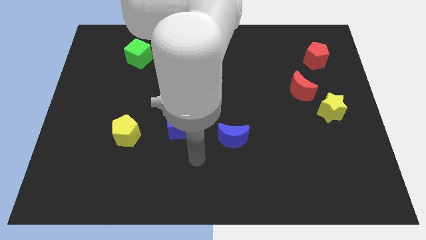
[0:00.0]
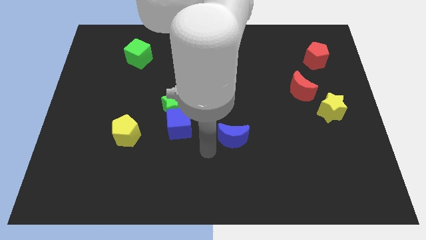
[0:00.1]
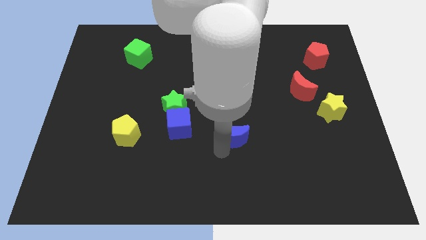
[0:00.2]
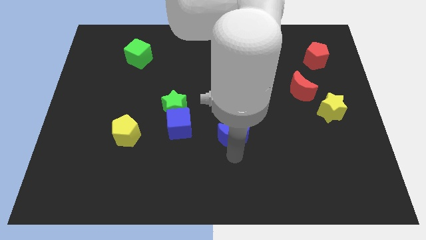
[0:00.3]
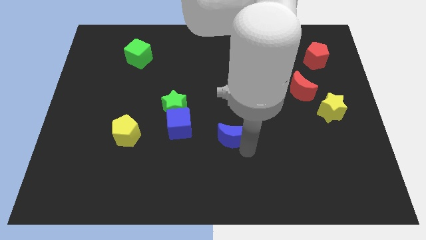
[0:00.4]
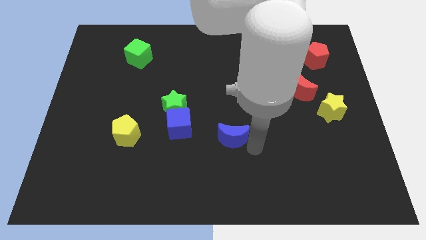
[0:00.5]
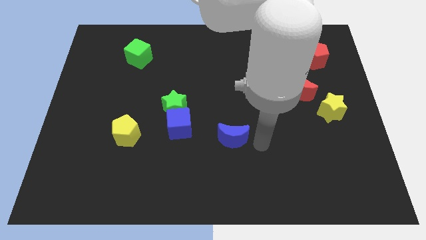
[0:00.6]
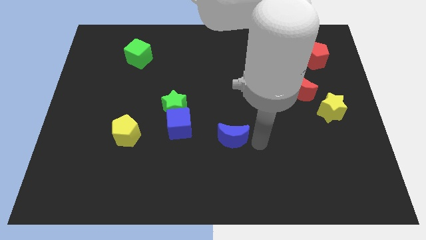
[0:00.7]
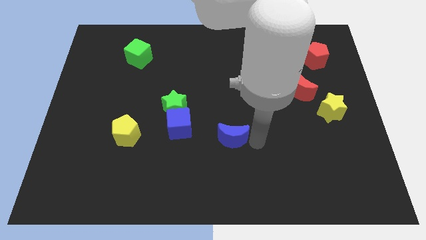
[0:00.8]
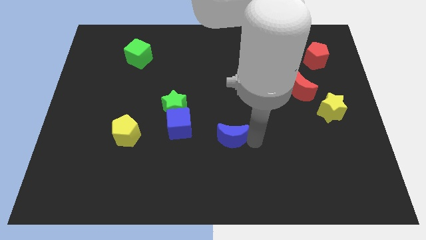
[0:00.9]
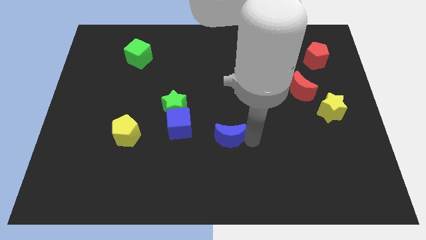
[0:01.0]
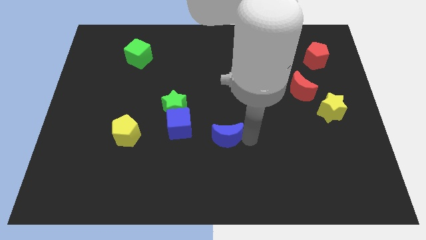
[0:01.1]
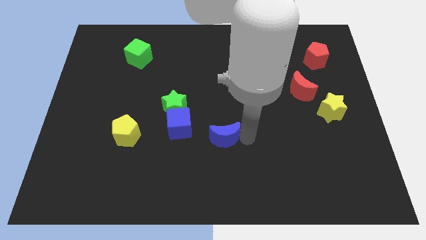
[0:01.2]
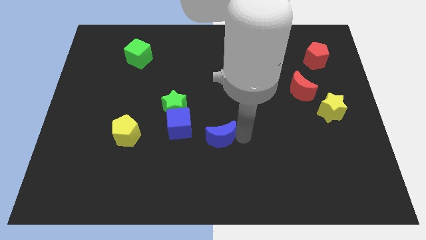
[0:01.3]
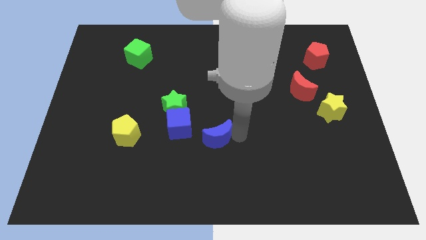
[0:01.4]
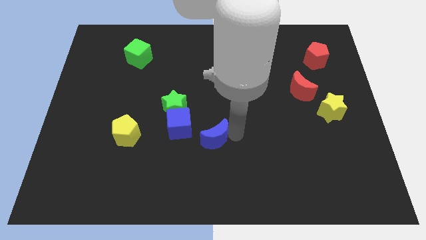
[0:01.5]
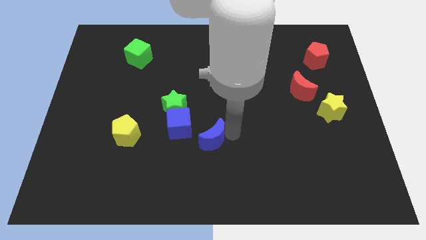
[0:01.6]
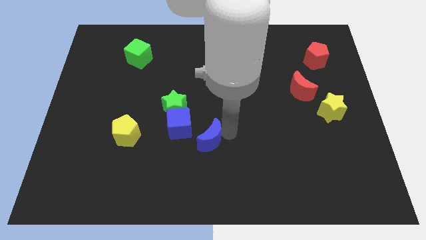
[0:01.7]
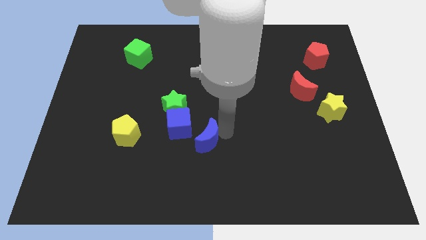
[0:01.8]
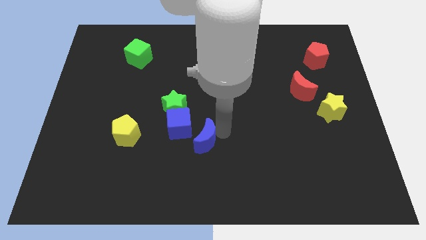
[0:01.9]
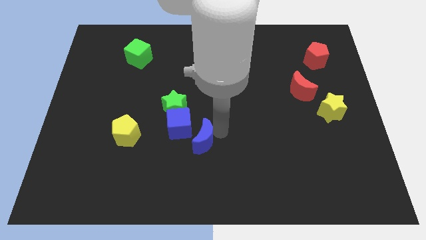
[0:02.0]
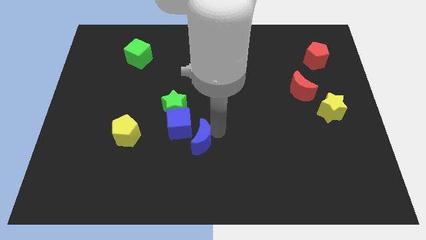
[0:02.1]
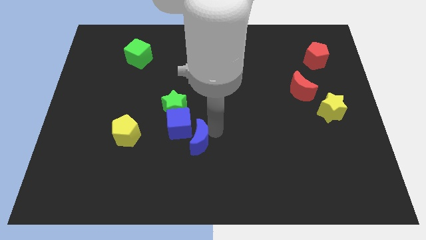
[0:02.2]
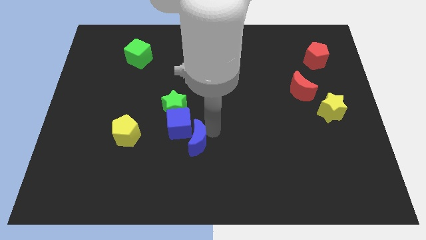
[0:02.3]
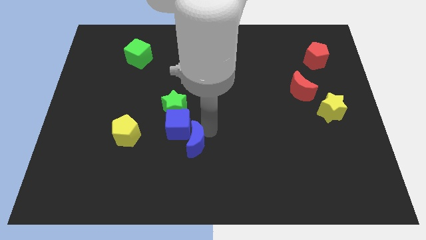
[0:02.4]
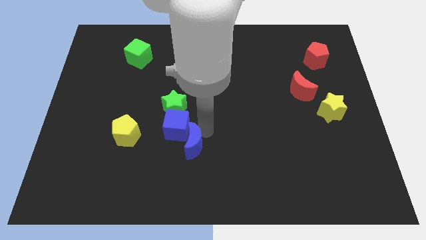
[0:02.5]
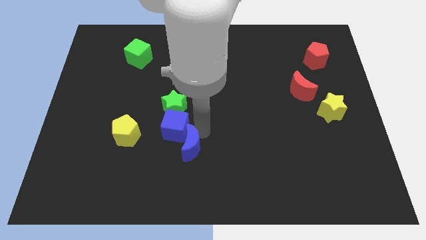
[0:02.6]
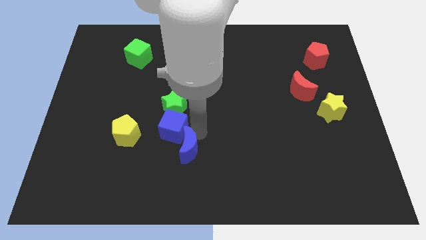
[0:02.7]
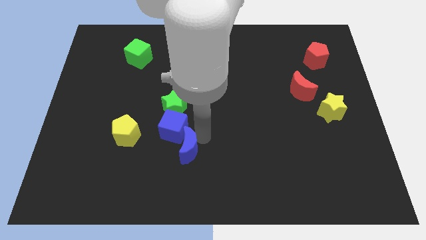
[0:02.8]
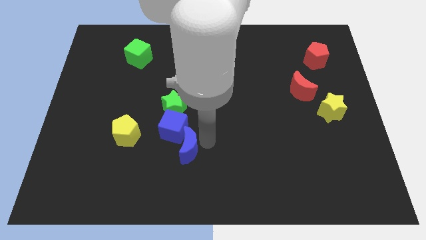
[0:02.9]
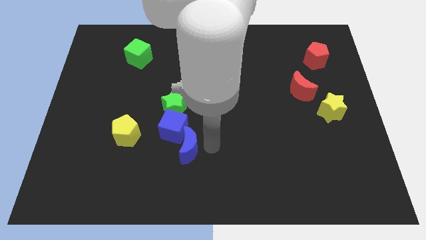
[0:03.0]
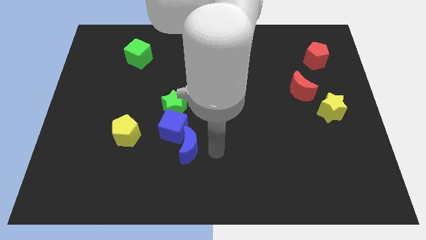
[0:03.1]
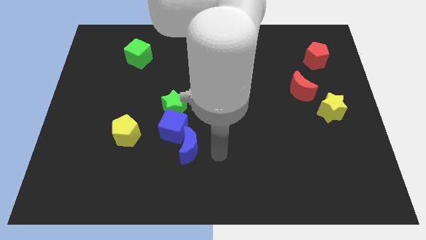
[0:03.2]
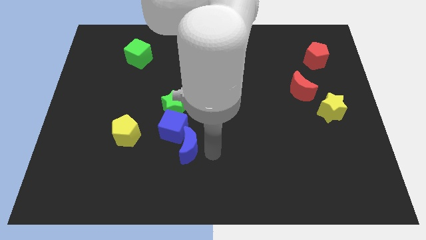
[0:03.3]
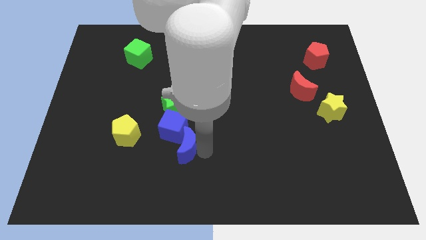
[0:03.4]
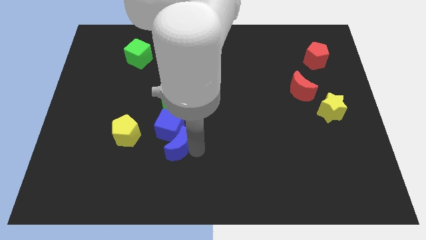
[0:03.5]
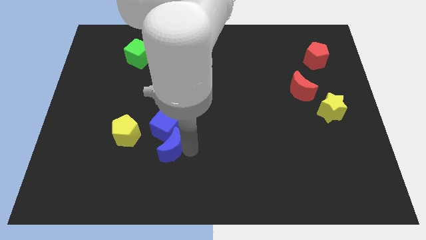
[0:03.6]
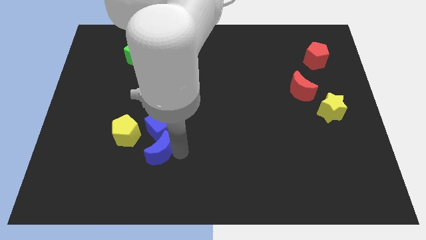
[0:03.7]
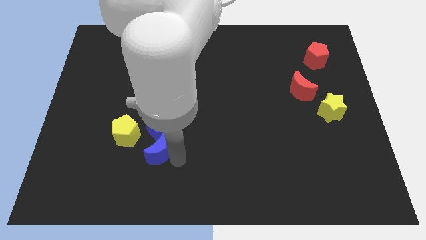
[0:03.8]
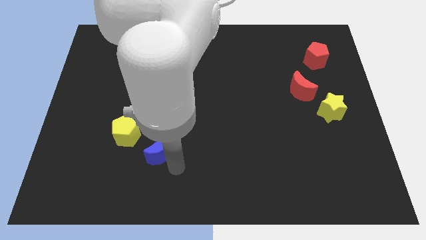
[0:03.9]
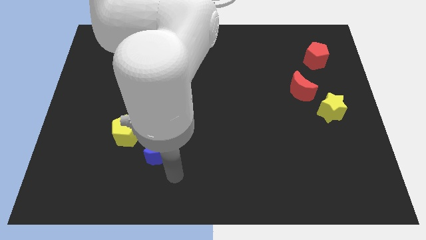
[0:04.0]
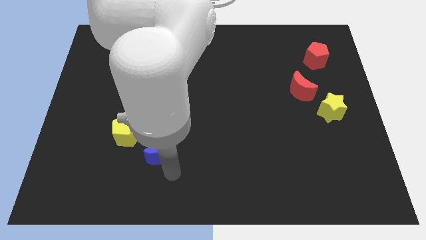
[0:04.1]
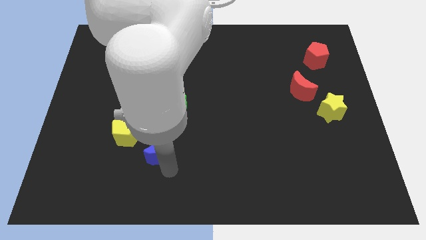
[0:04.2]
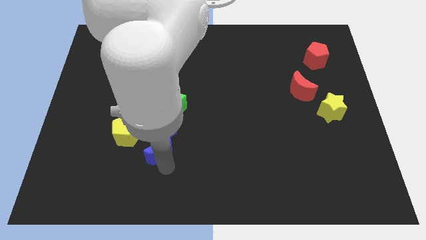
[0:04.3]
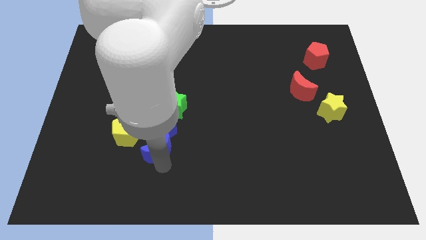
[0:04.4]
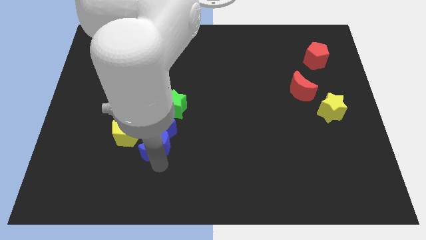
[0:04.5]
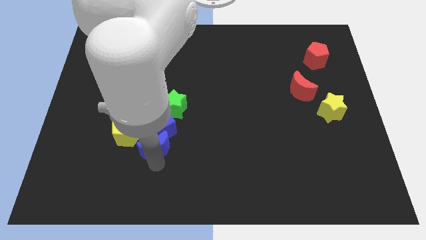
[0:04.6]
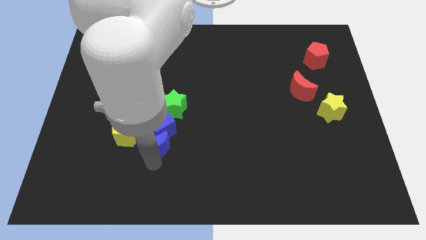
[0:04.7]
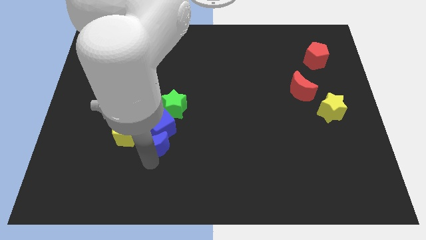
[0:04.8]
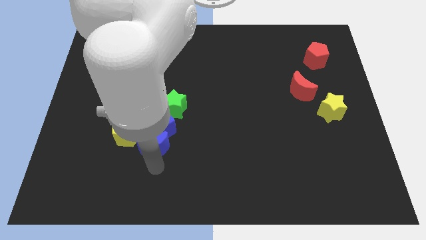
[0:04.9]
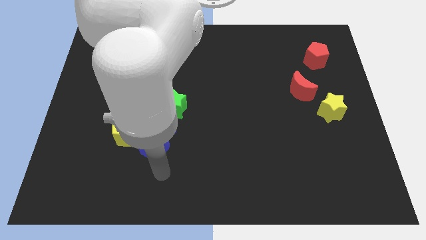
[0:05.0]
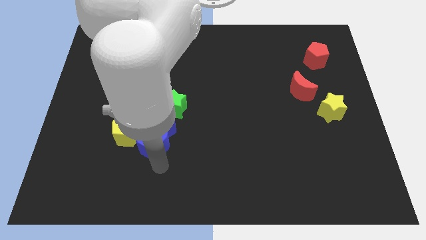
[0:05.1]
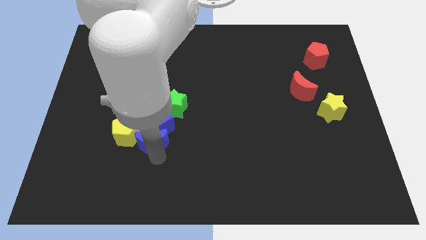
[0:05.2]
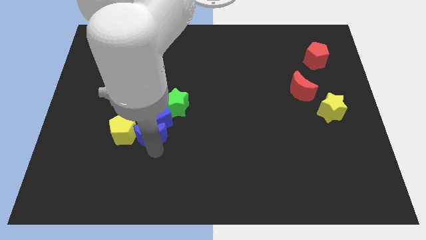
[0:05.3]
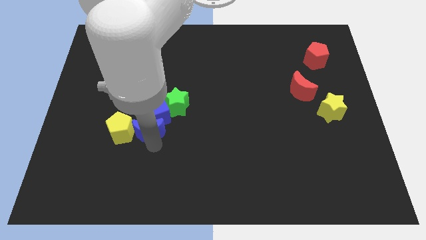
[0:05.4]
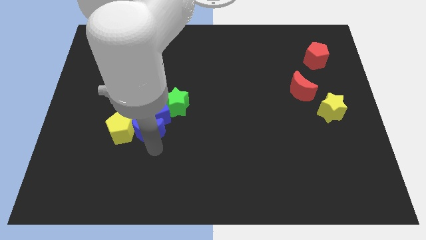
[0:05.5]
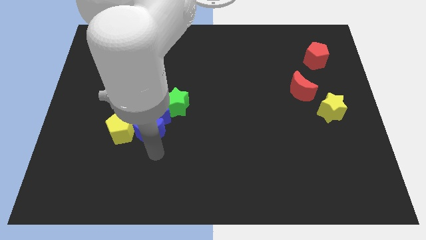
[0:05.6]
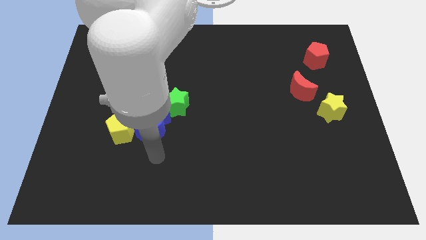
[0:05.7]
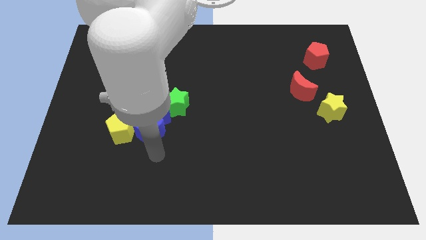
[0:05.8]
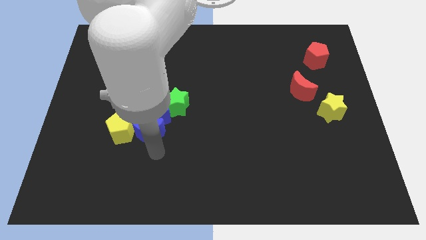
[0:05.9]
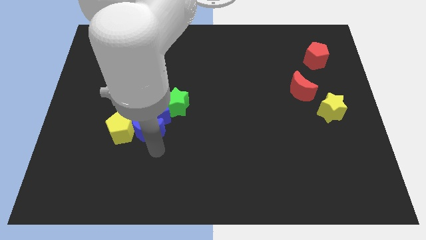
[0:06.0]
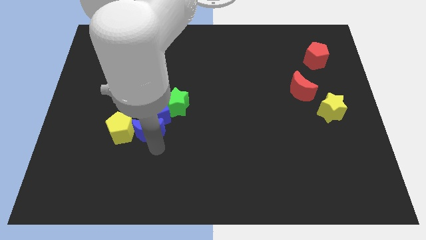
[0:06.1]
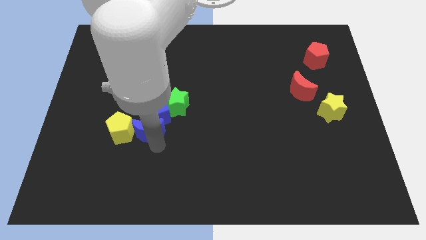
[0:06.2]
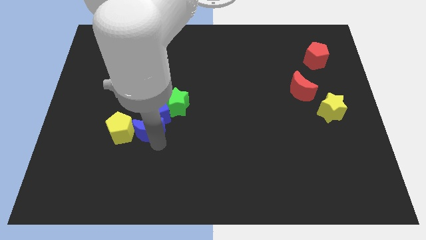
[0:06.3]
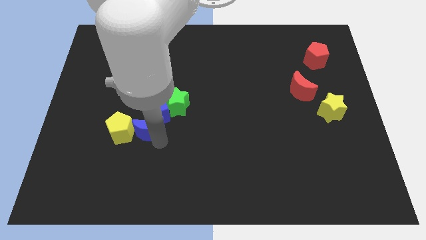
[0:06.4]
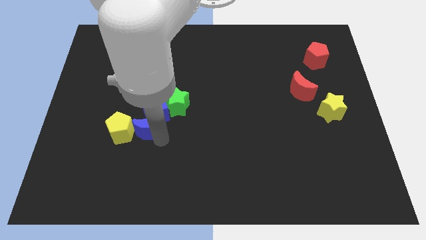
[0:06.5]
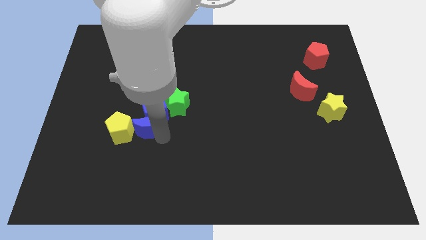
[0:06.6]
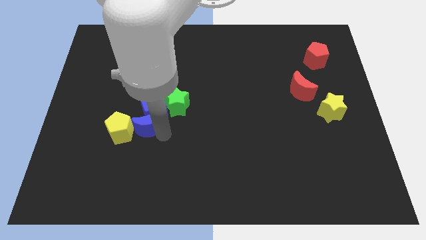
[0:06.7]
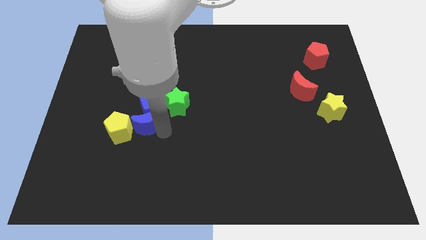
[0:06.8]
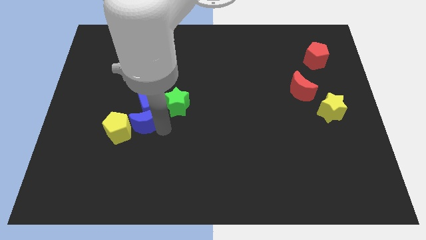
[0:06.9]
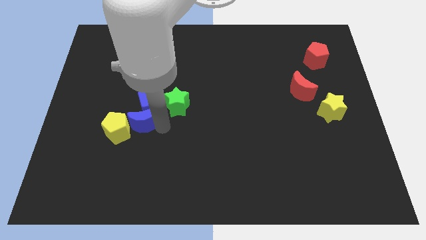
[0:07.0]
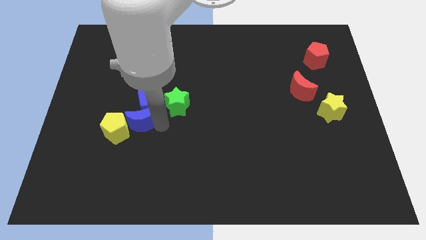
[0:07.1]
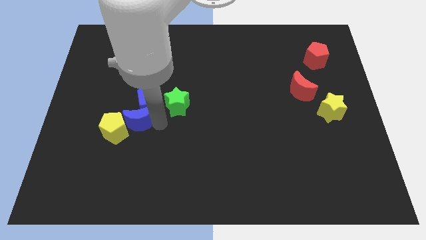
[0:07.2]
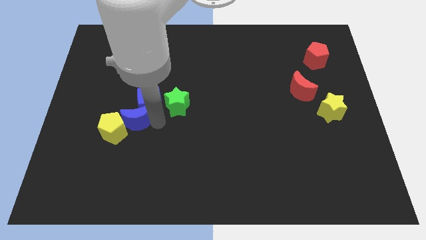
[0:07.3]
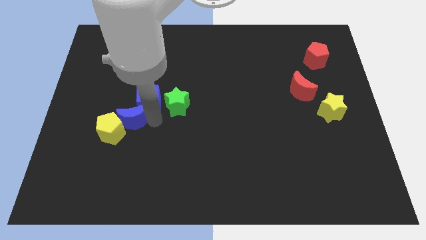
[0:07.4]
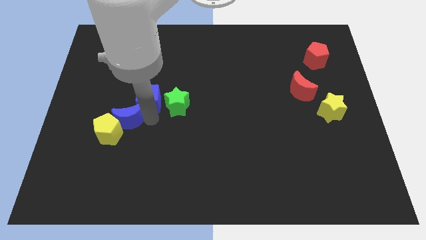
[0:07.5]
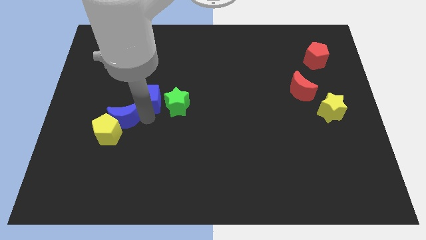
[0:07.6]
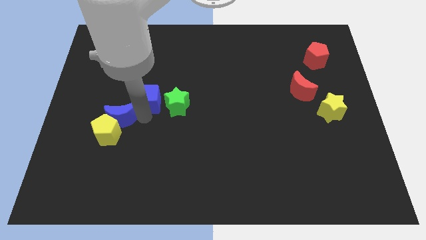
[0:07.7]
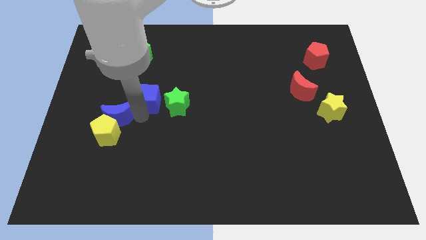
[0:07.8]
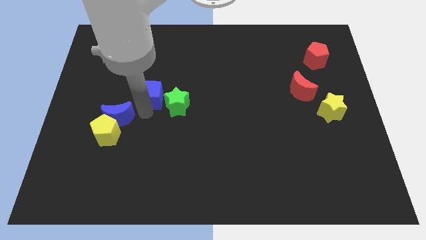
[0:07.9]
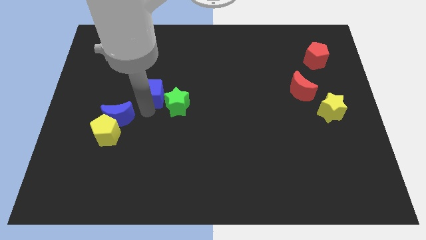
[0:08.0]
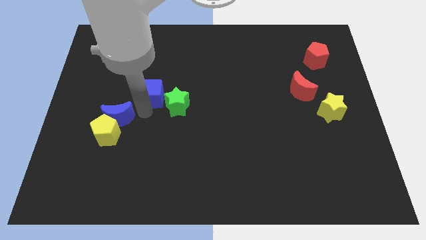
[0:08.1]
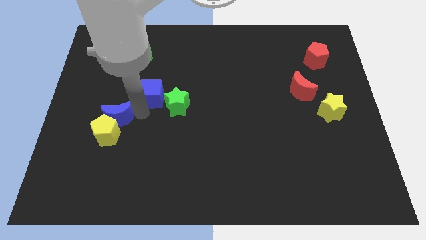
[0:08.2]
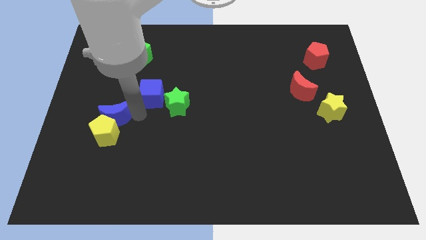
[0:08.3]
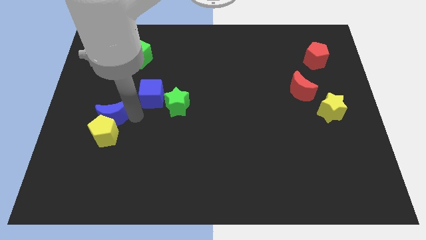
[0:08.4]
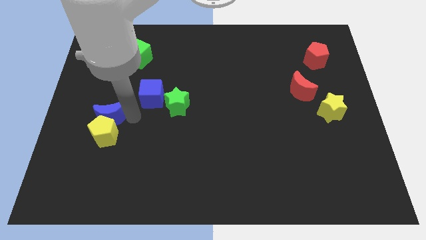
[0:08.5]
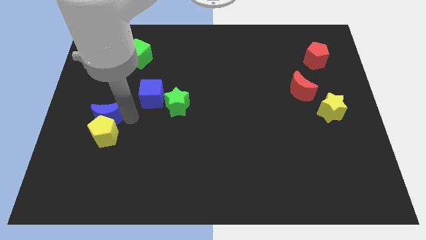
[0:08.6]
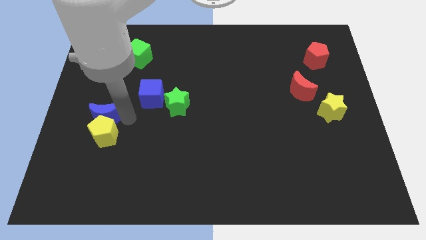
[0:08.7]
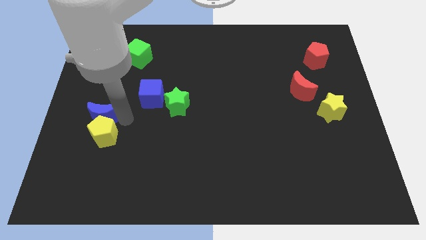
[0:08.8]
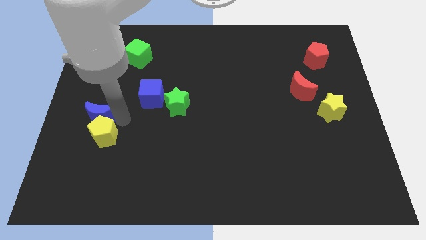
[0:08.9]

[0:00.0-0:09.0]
slide the blue moon to the left side
